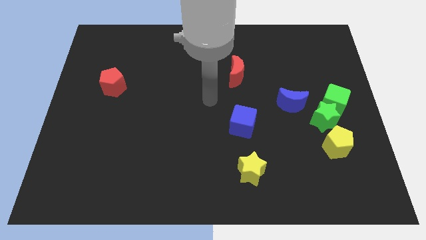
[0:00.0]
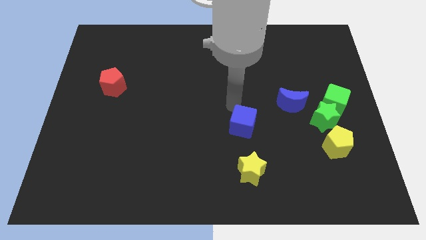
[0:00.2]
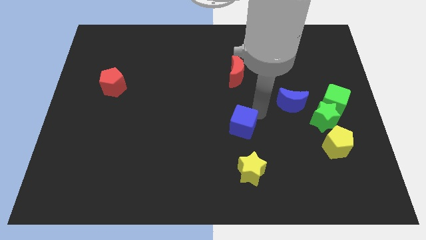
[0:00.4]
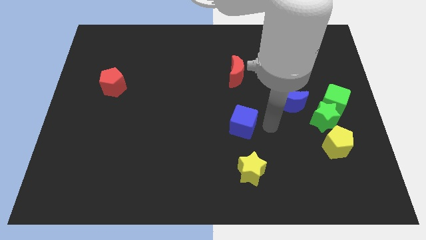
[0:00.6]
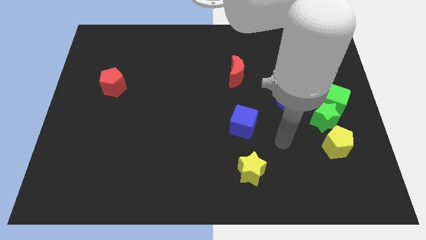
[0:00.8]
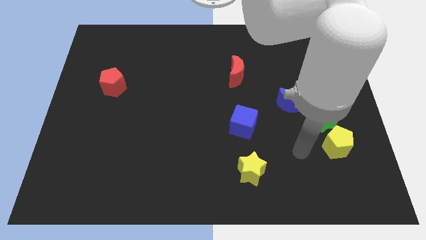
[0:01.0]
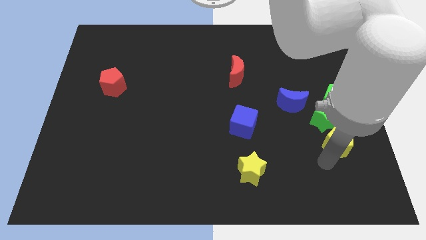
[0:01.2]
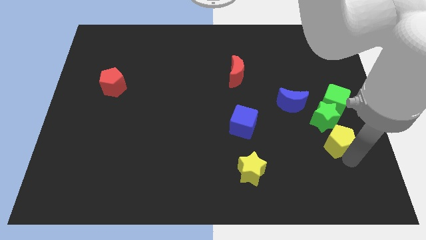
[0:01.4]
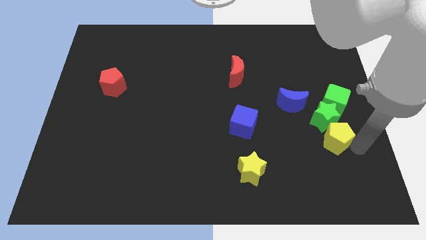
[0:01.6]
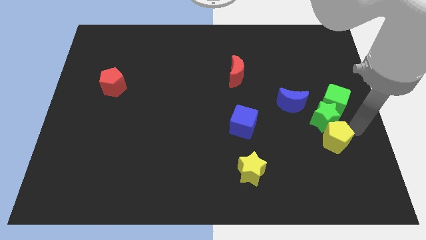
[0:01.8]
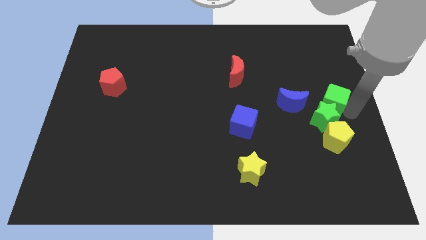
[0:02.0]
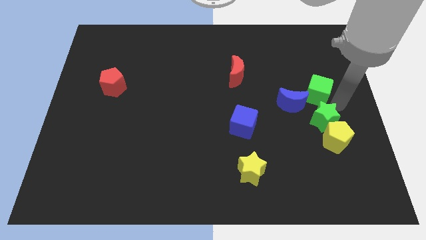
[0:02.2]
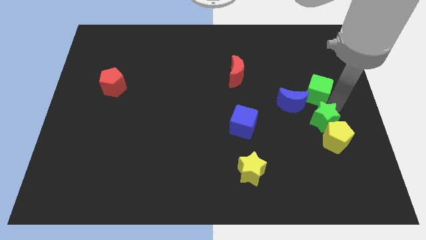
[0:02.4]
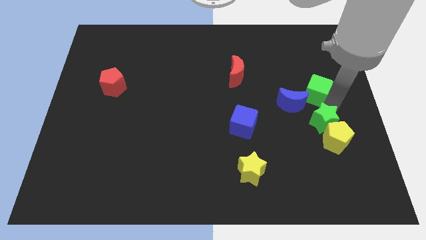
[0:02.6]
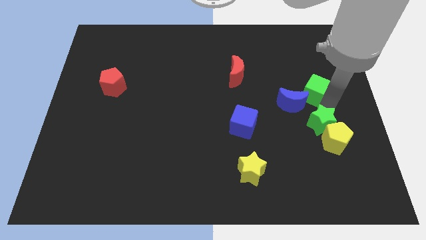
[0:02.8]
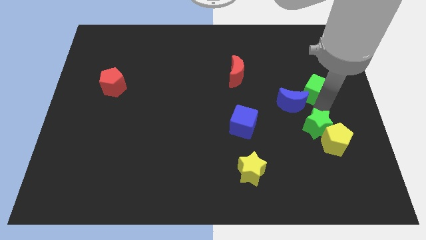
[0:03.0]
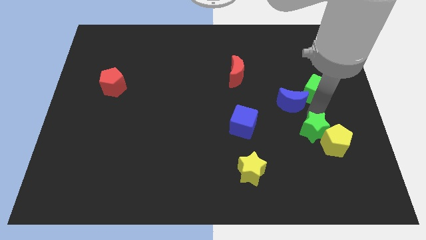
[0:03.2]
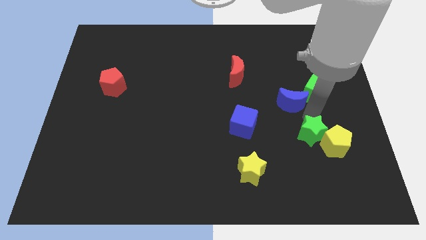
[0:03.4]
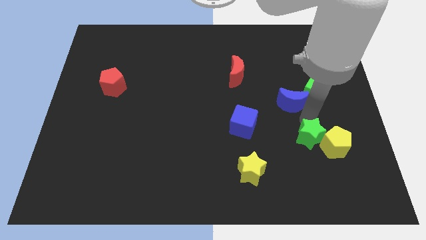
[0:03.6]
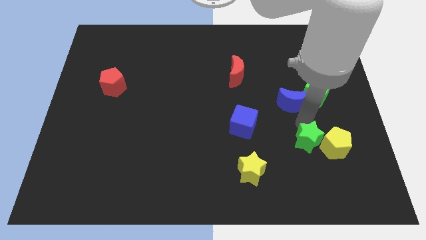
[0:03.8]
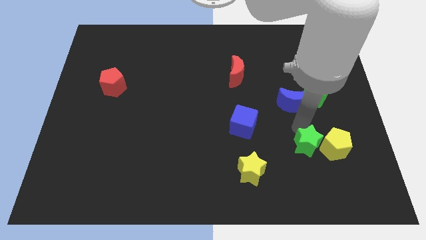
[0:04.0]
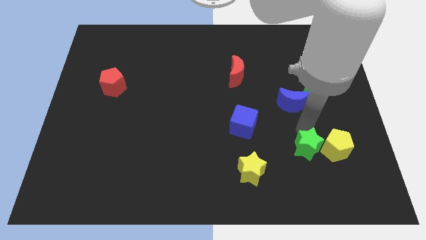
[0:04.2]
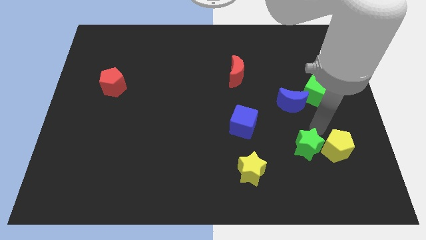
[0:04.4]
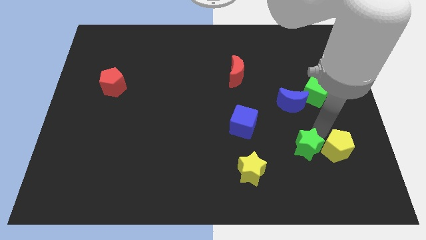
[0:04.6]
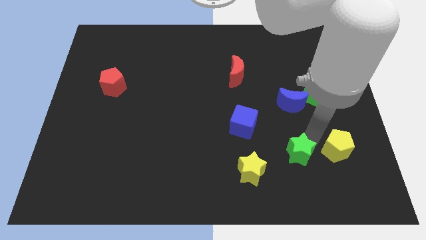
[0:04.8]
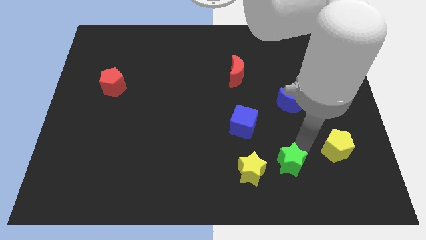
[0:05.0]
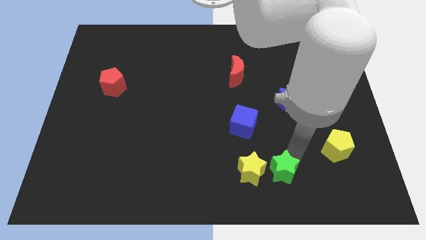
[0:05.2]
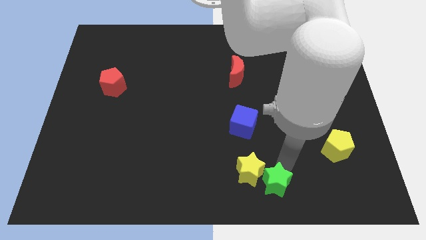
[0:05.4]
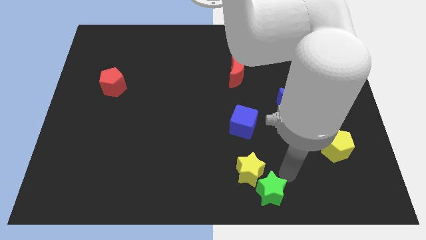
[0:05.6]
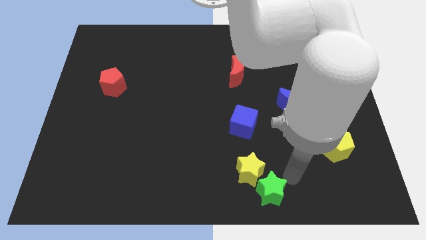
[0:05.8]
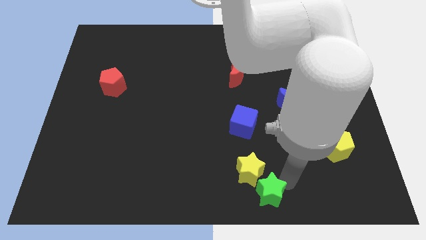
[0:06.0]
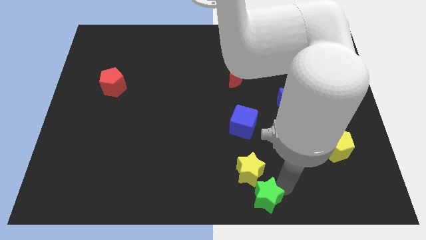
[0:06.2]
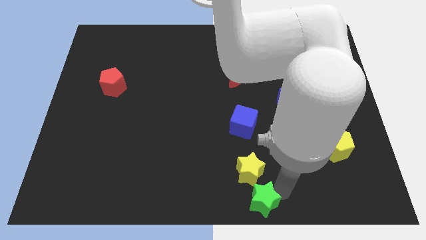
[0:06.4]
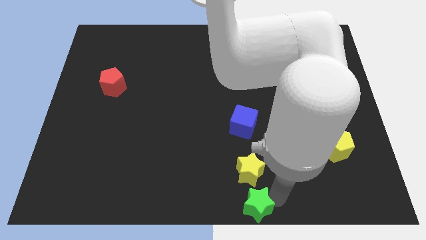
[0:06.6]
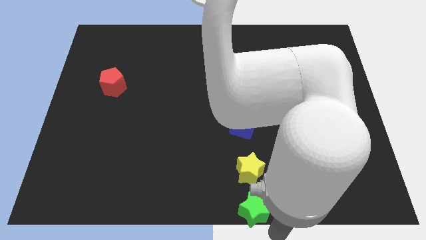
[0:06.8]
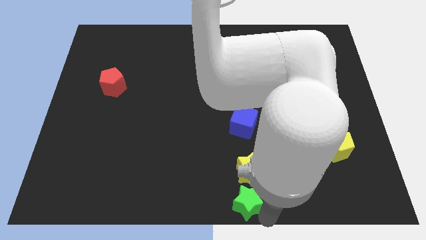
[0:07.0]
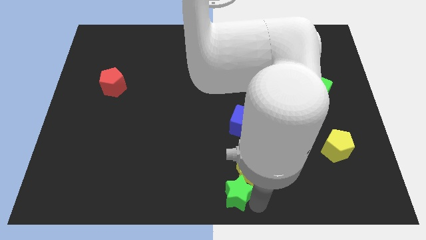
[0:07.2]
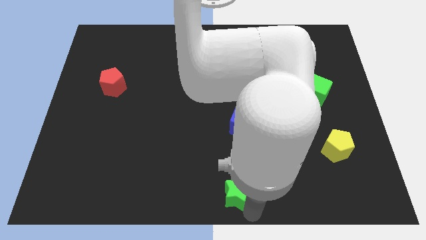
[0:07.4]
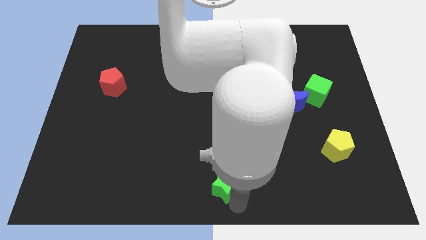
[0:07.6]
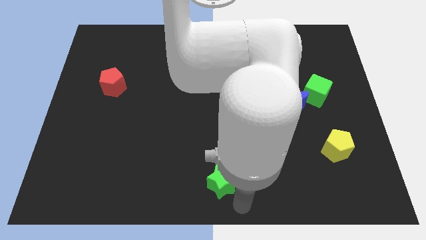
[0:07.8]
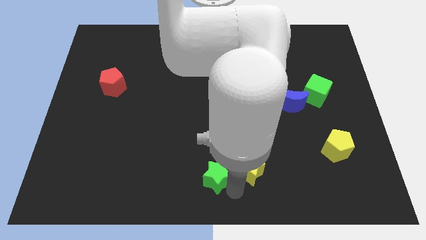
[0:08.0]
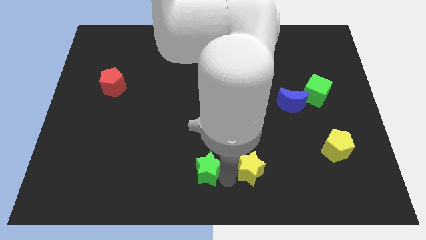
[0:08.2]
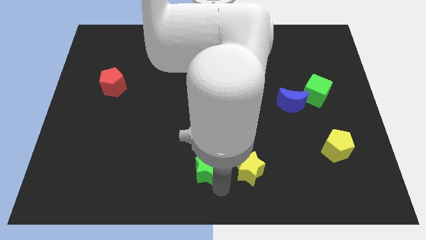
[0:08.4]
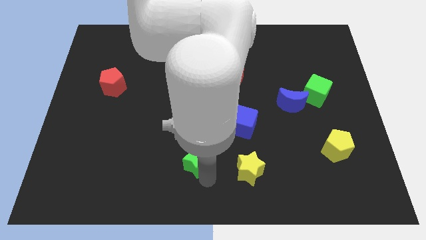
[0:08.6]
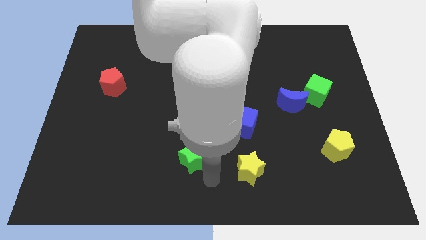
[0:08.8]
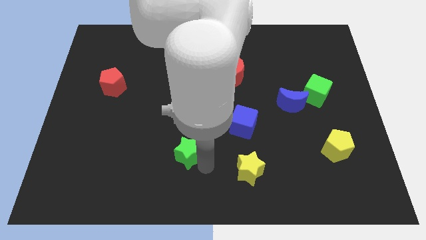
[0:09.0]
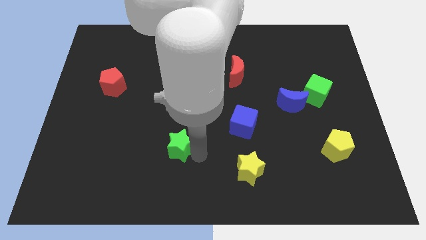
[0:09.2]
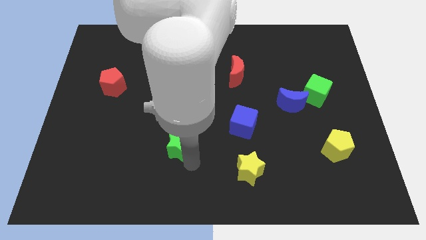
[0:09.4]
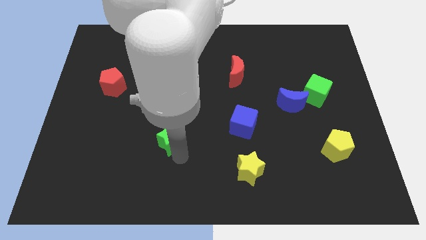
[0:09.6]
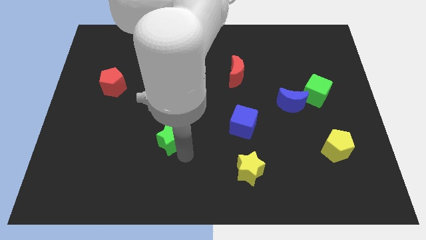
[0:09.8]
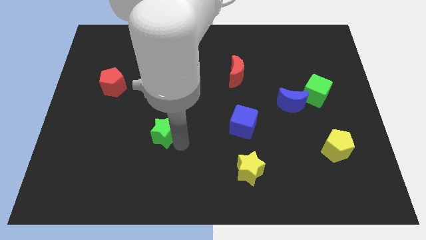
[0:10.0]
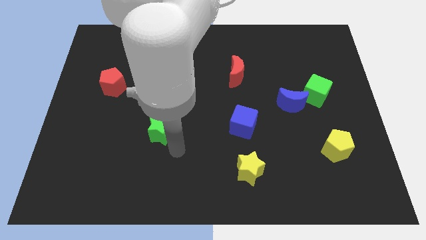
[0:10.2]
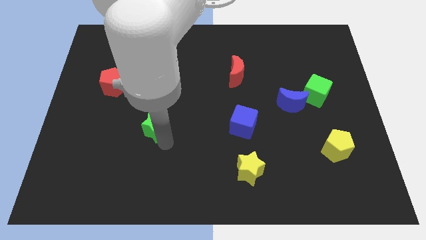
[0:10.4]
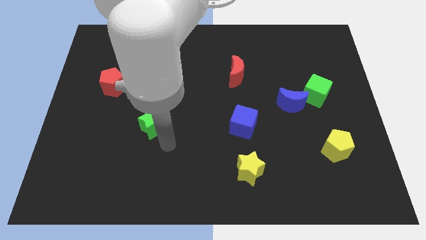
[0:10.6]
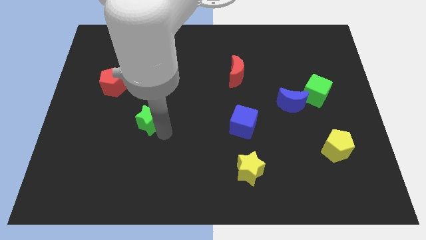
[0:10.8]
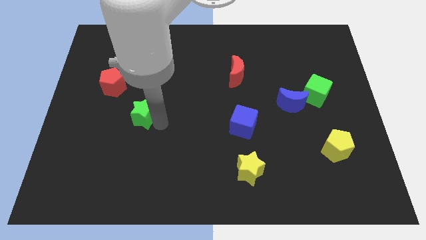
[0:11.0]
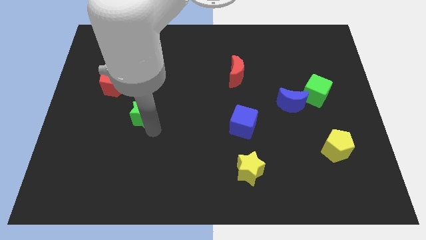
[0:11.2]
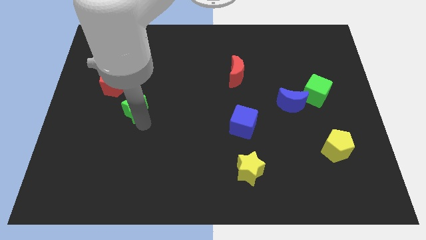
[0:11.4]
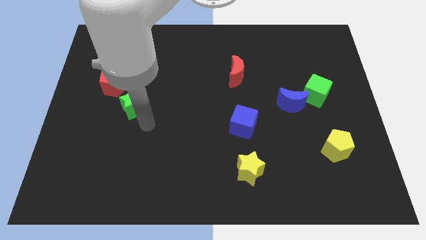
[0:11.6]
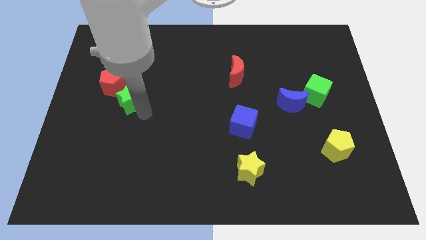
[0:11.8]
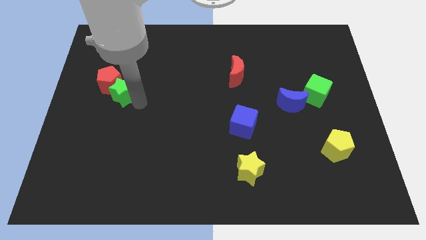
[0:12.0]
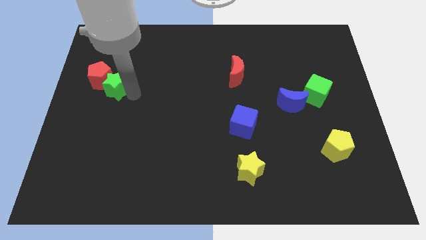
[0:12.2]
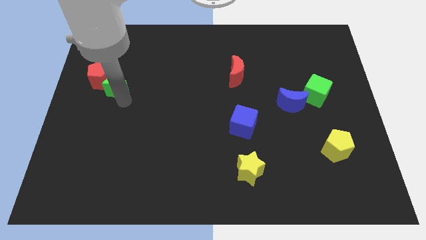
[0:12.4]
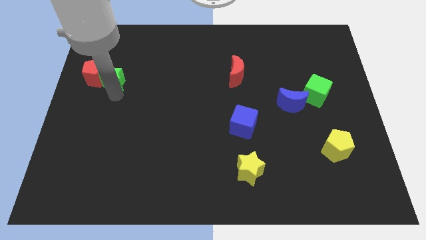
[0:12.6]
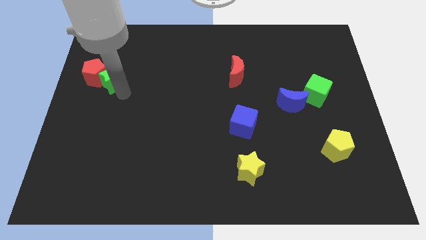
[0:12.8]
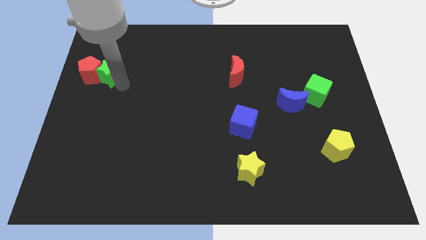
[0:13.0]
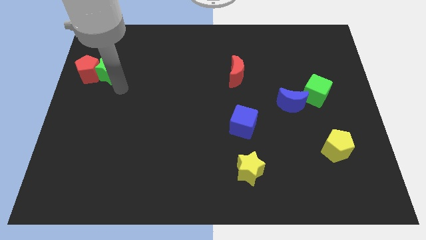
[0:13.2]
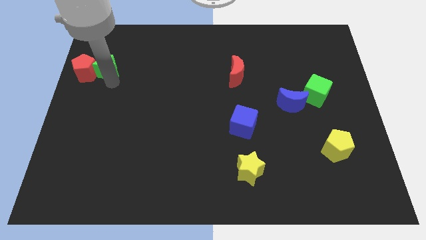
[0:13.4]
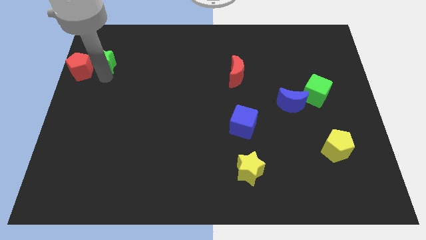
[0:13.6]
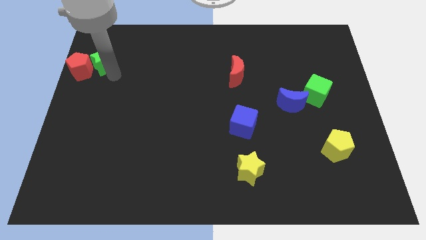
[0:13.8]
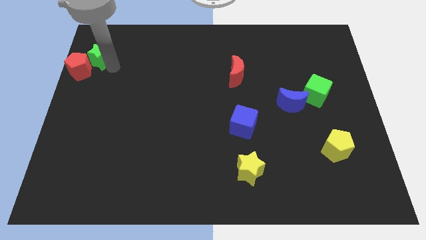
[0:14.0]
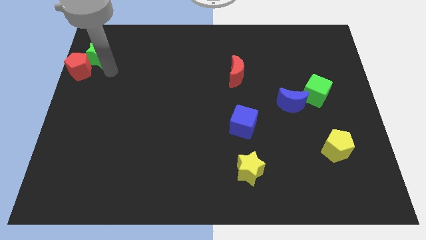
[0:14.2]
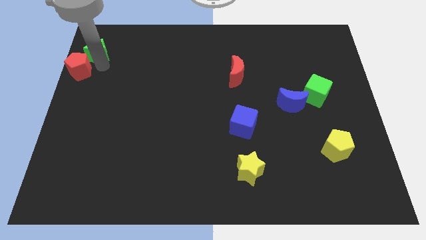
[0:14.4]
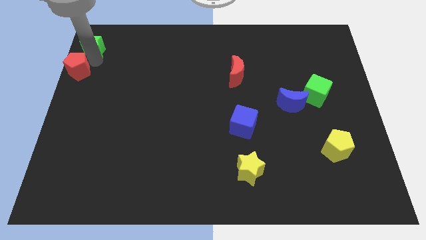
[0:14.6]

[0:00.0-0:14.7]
put the green star to the top left of the board

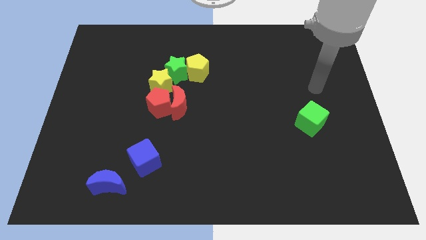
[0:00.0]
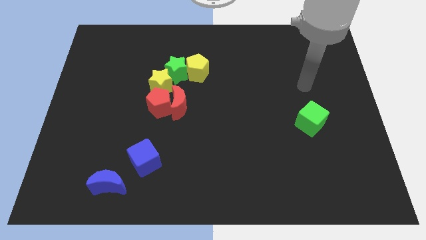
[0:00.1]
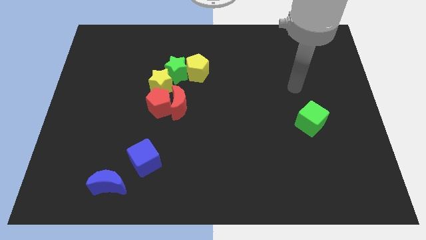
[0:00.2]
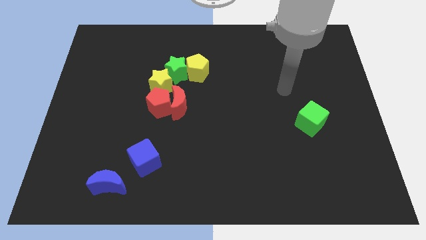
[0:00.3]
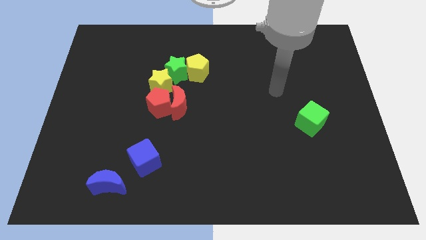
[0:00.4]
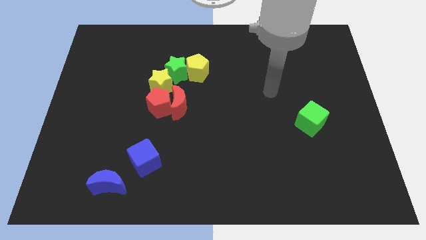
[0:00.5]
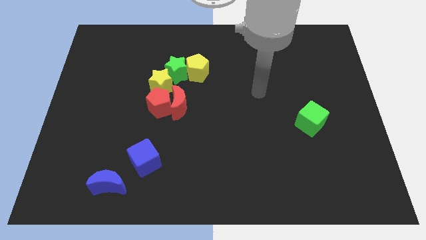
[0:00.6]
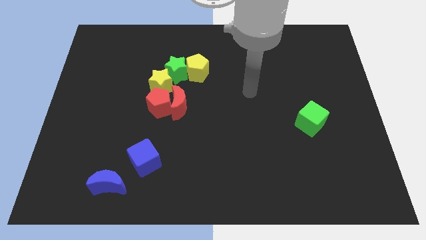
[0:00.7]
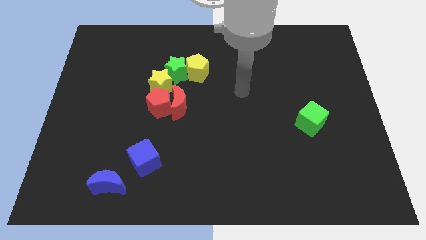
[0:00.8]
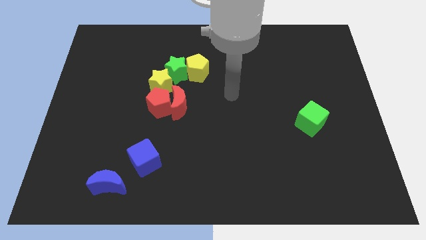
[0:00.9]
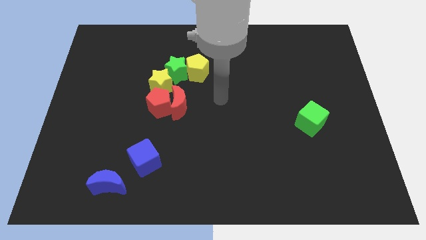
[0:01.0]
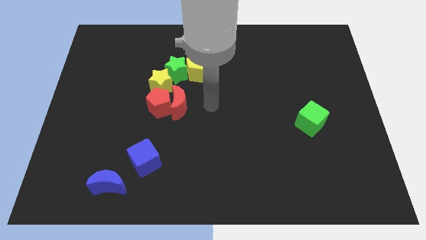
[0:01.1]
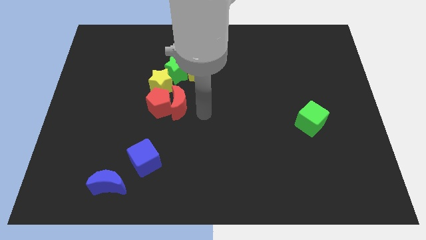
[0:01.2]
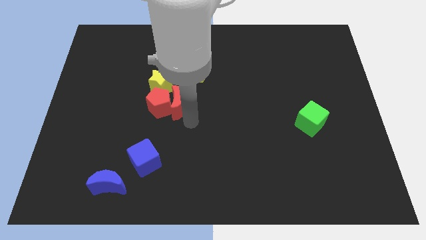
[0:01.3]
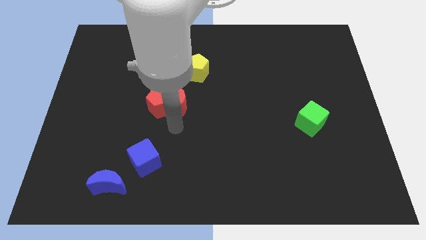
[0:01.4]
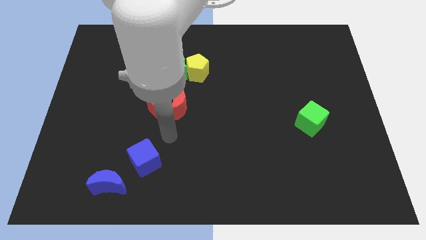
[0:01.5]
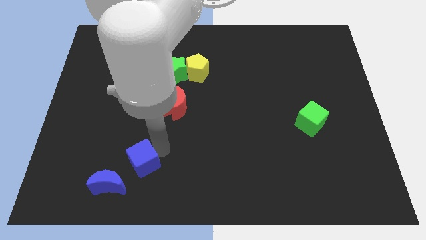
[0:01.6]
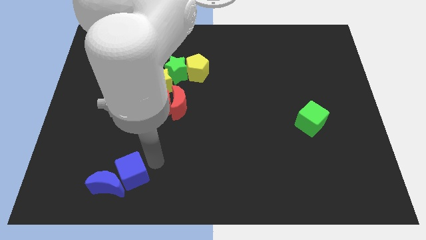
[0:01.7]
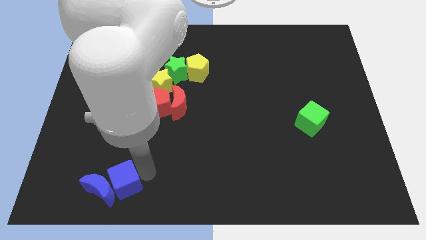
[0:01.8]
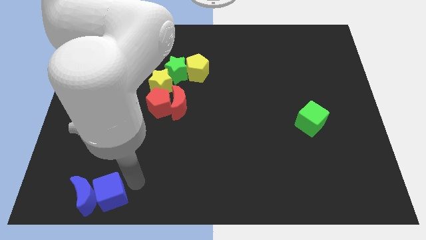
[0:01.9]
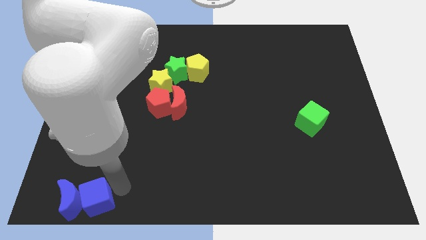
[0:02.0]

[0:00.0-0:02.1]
put the blue moon to the bottom left corner
